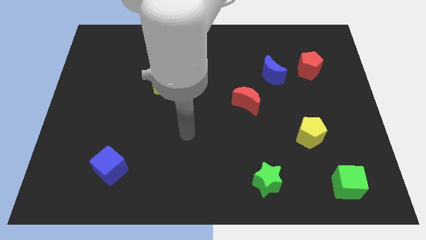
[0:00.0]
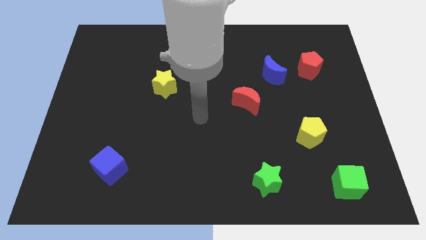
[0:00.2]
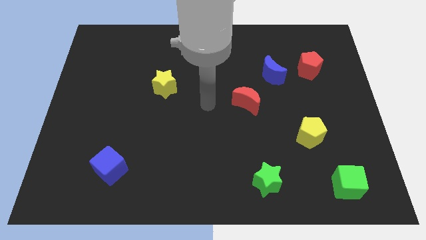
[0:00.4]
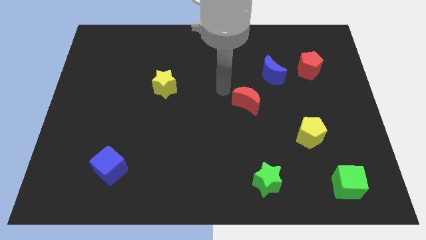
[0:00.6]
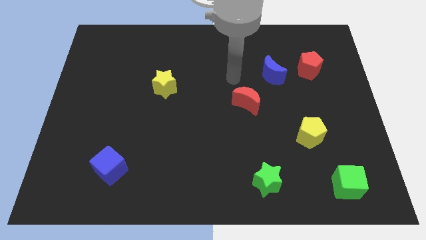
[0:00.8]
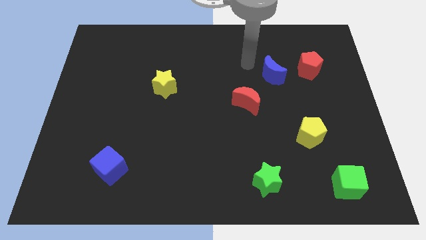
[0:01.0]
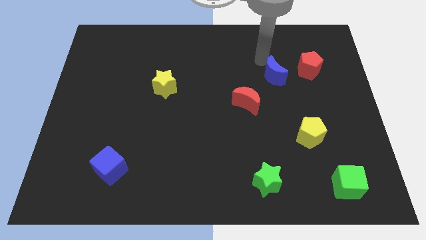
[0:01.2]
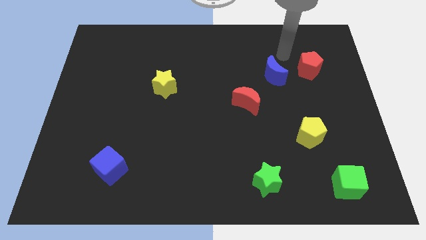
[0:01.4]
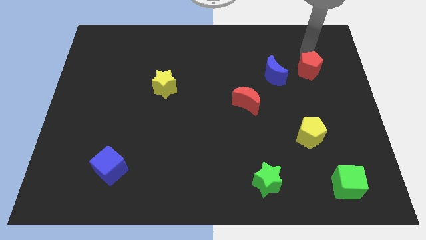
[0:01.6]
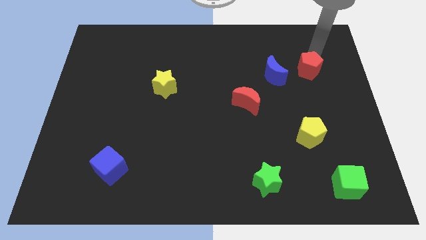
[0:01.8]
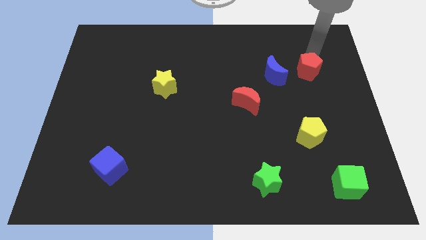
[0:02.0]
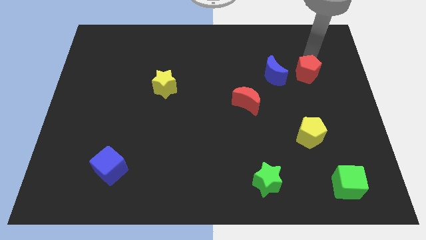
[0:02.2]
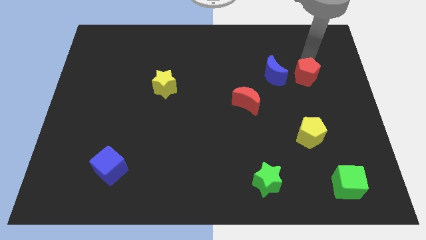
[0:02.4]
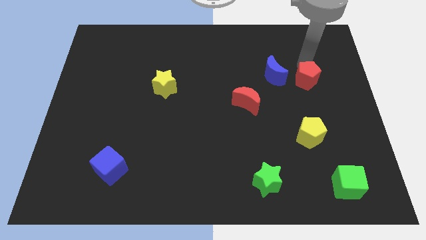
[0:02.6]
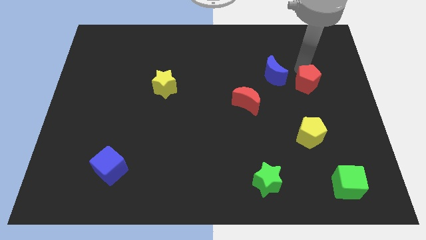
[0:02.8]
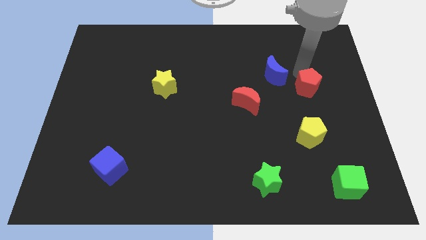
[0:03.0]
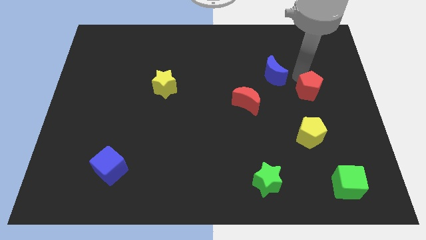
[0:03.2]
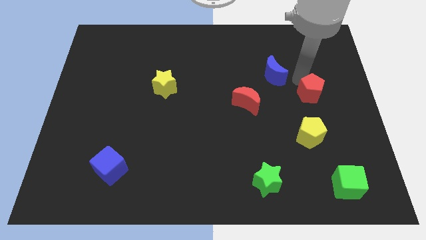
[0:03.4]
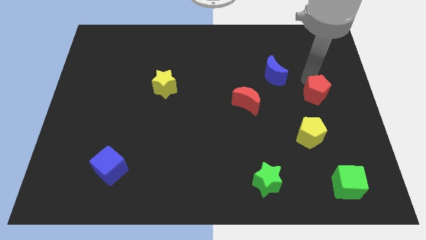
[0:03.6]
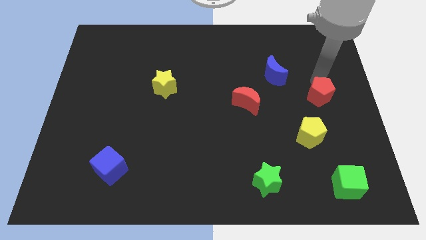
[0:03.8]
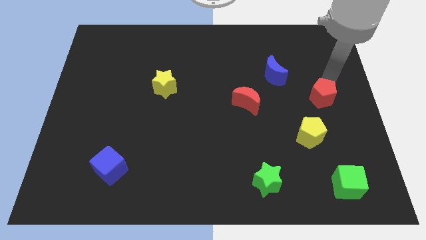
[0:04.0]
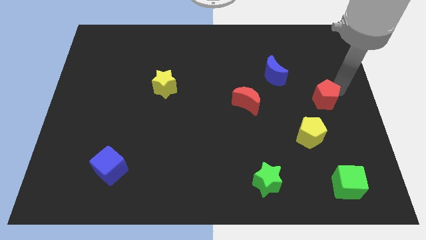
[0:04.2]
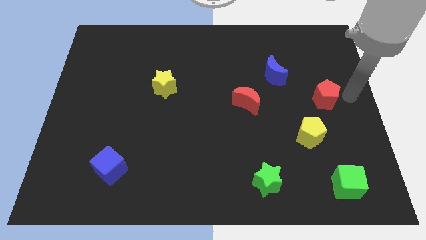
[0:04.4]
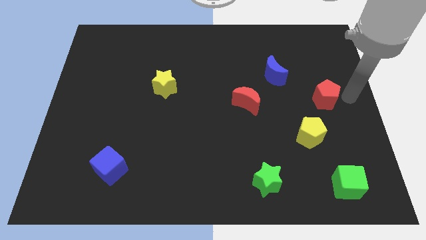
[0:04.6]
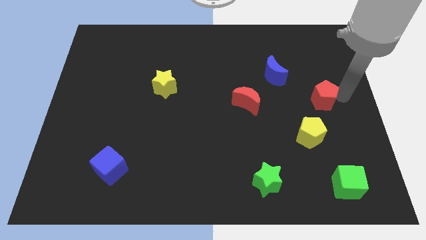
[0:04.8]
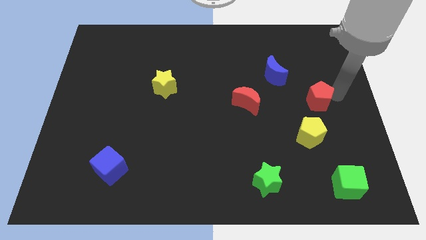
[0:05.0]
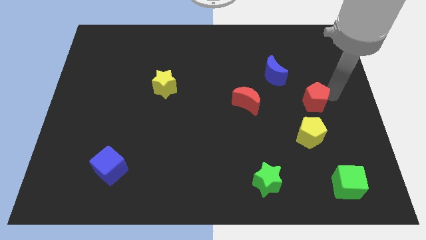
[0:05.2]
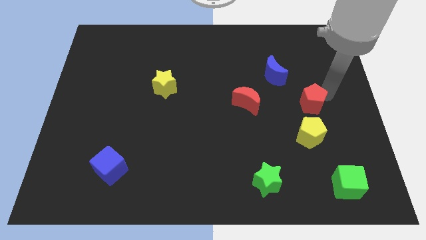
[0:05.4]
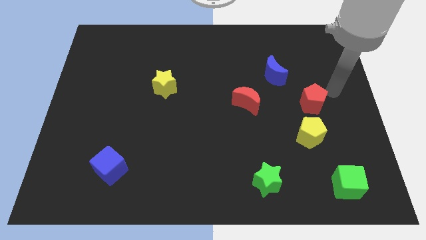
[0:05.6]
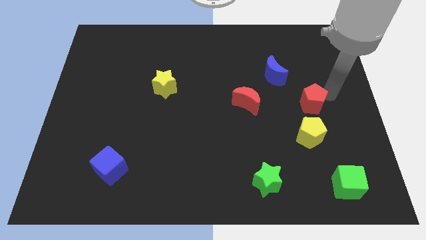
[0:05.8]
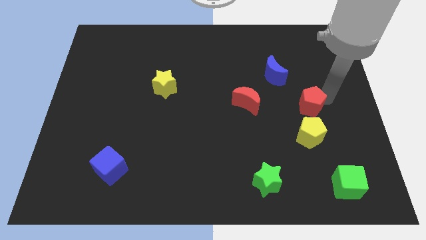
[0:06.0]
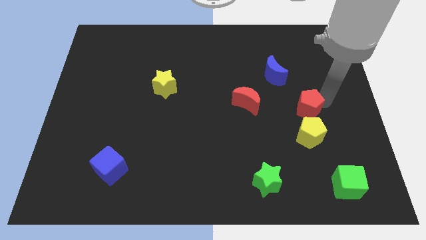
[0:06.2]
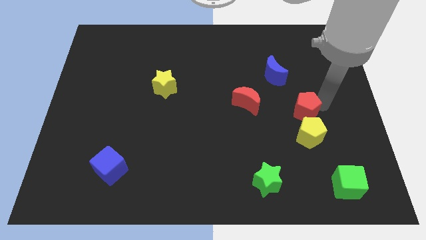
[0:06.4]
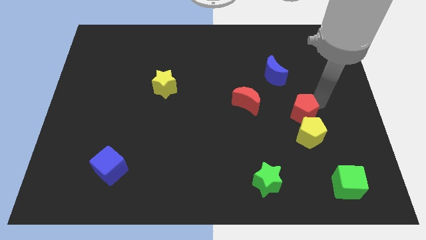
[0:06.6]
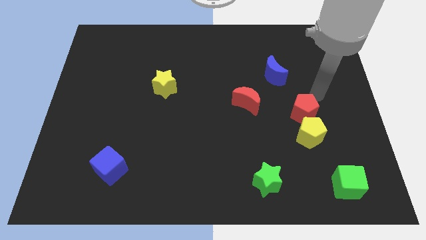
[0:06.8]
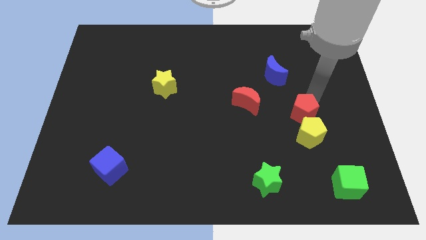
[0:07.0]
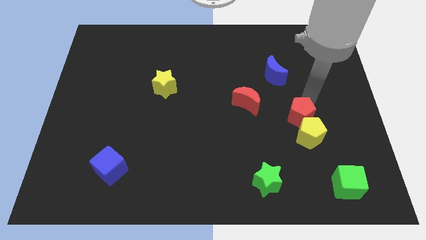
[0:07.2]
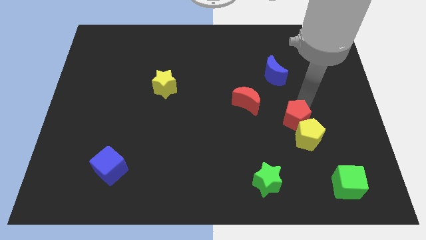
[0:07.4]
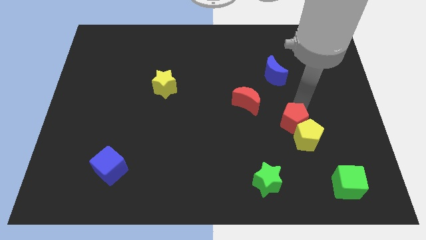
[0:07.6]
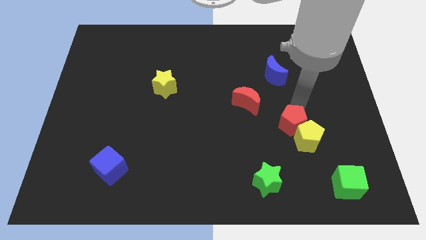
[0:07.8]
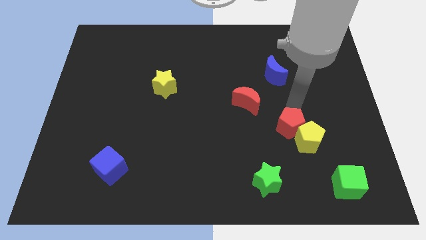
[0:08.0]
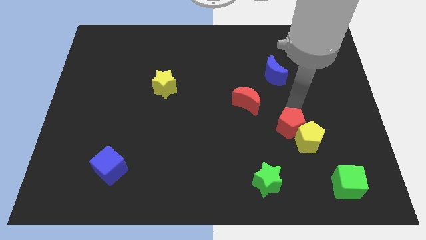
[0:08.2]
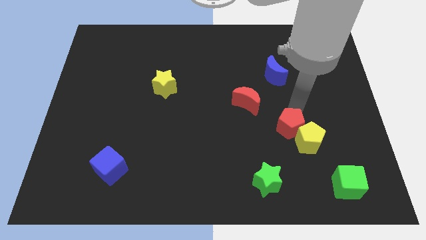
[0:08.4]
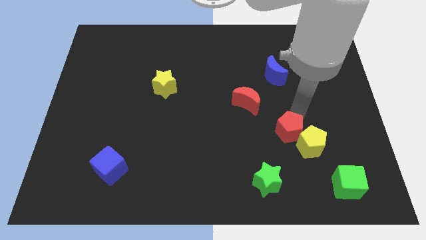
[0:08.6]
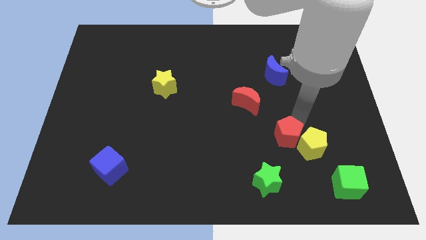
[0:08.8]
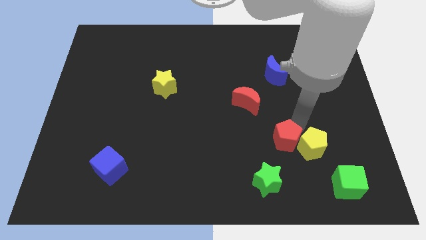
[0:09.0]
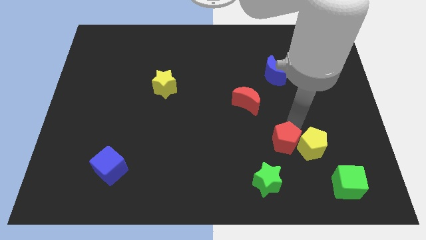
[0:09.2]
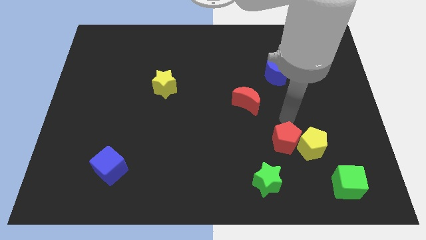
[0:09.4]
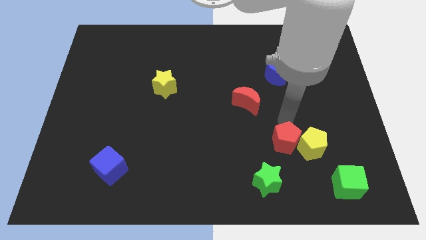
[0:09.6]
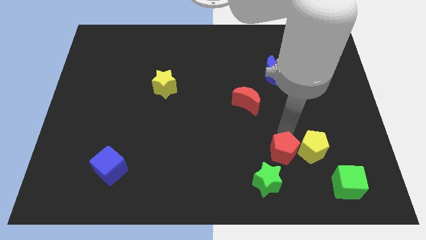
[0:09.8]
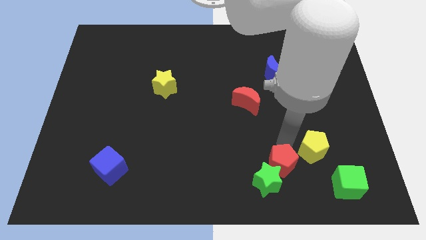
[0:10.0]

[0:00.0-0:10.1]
move the red pentagon towards the green star

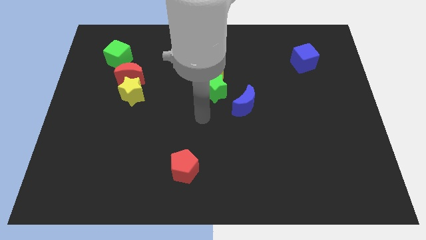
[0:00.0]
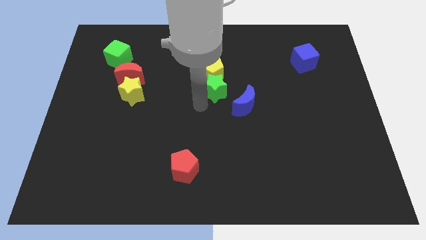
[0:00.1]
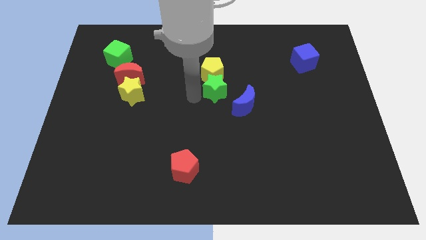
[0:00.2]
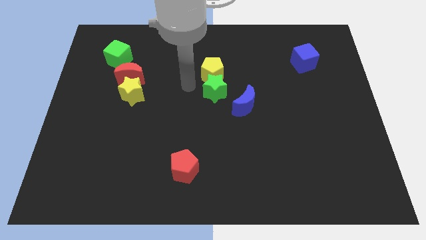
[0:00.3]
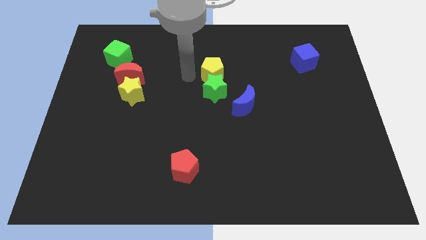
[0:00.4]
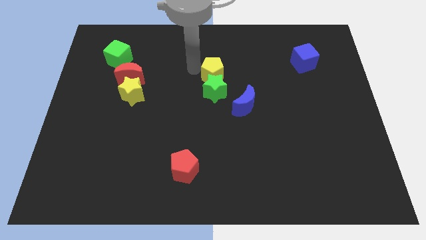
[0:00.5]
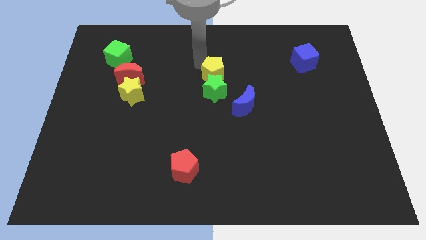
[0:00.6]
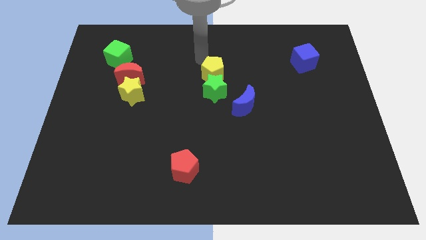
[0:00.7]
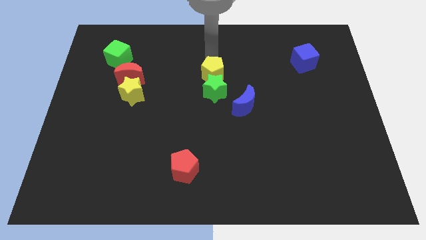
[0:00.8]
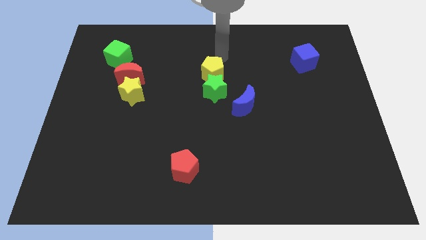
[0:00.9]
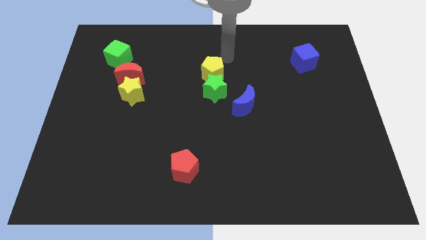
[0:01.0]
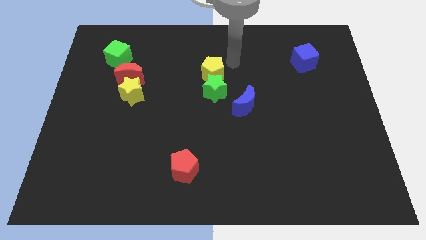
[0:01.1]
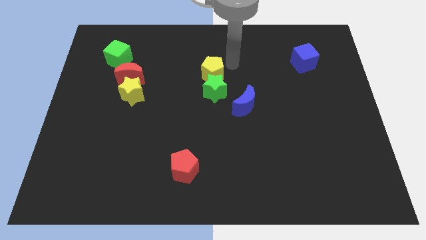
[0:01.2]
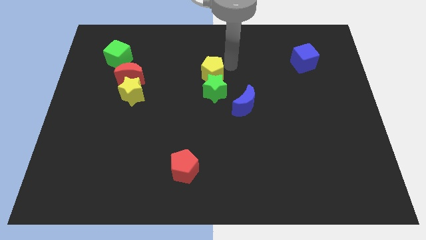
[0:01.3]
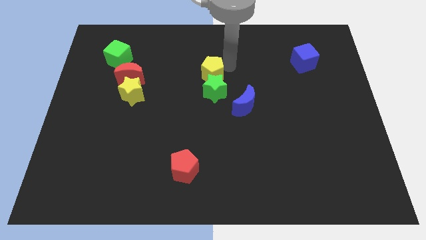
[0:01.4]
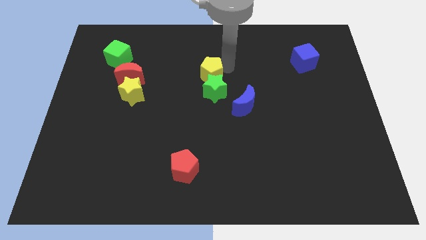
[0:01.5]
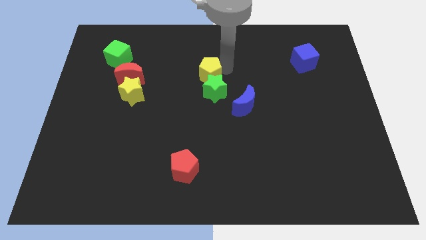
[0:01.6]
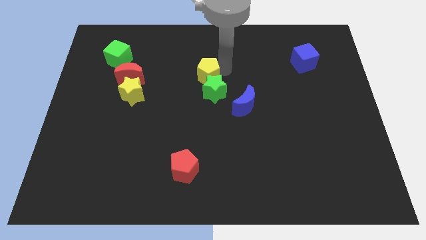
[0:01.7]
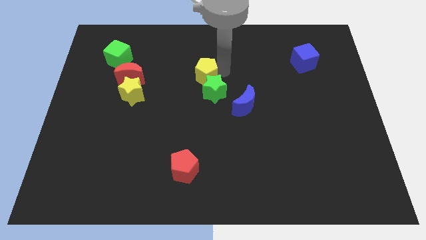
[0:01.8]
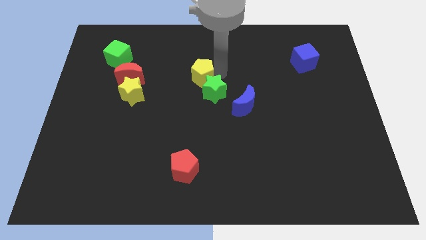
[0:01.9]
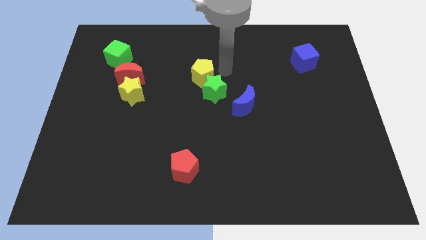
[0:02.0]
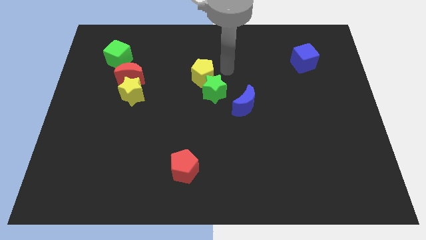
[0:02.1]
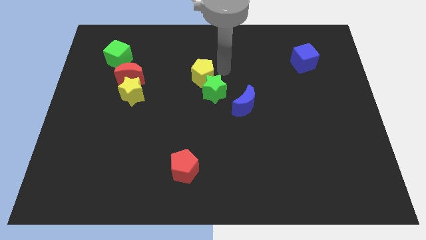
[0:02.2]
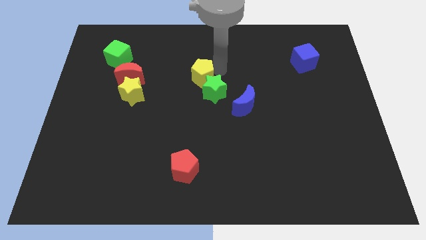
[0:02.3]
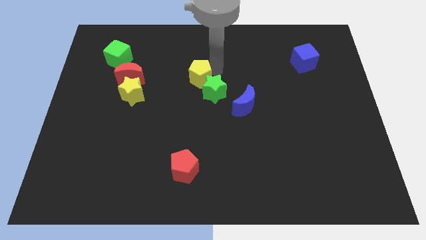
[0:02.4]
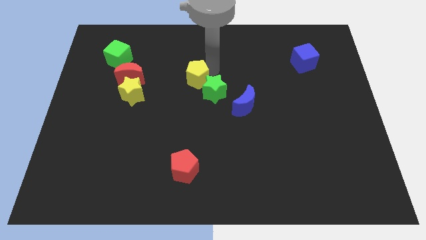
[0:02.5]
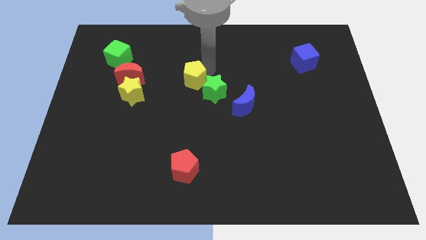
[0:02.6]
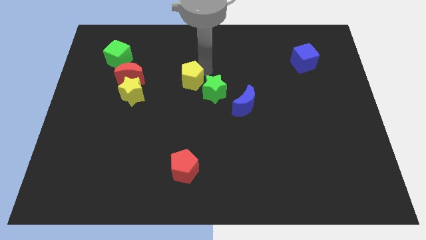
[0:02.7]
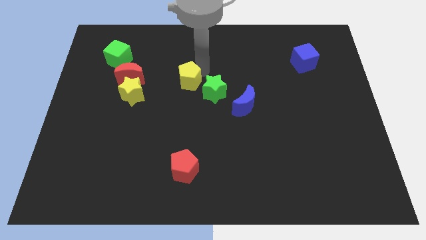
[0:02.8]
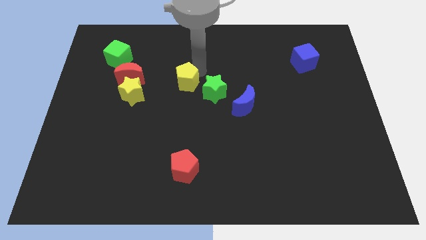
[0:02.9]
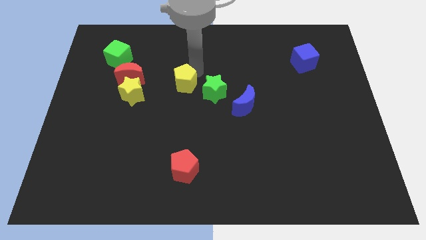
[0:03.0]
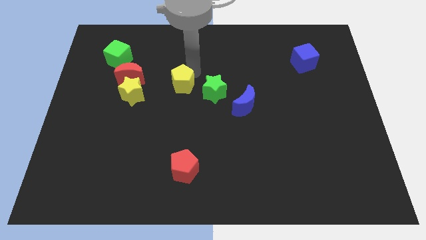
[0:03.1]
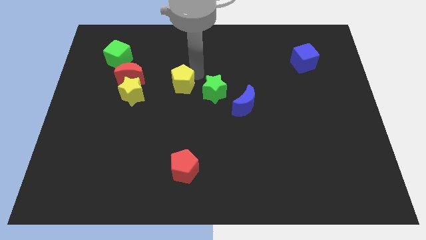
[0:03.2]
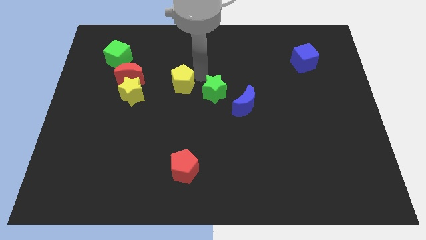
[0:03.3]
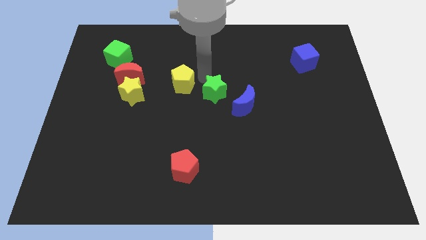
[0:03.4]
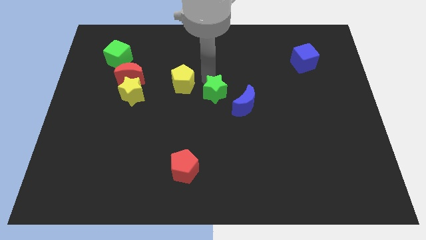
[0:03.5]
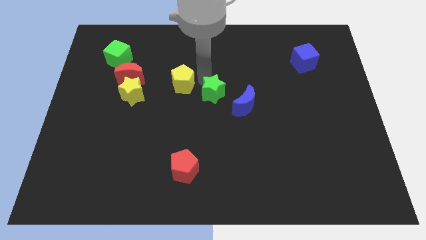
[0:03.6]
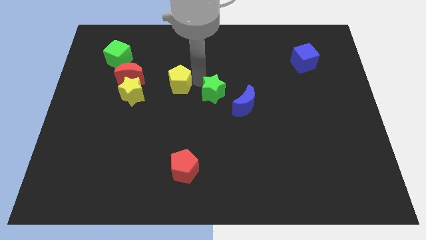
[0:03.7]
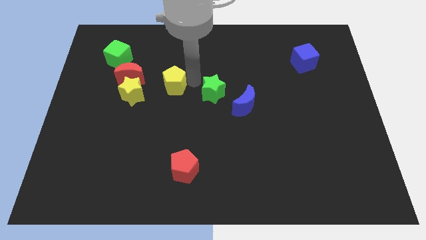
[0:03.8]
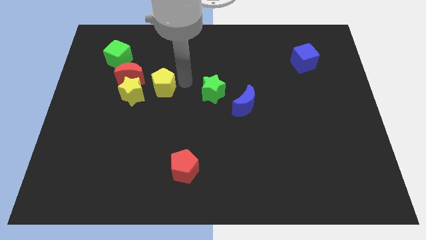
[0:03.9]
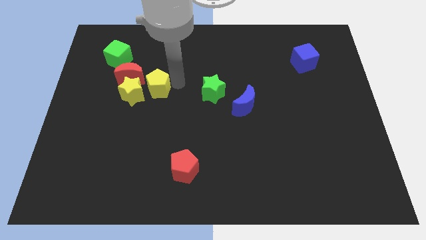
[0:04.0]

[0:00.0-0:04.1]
move the yellow pentagon towards the yellow star
